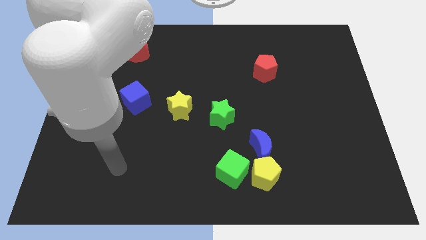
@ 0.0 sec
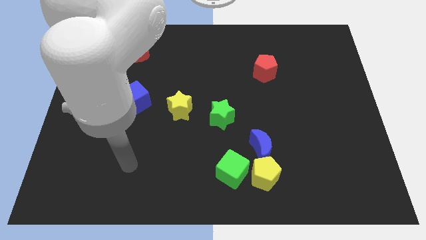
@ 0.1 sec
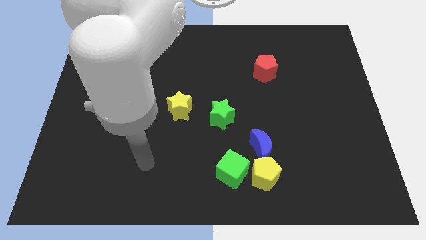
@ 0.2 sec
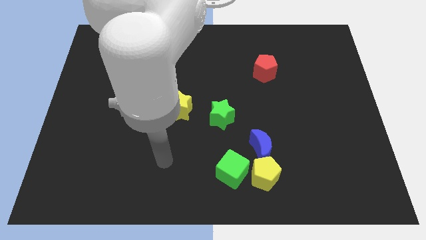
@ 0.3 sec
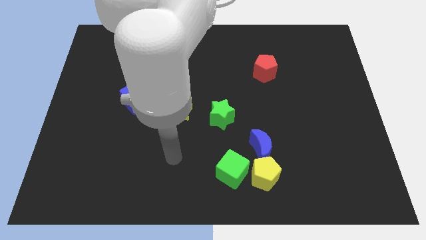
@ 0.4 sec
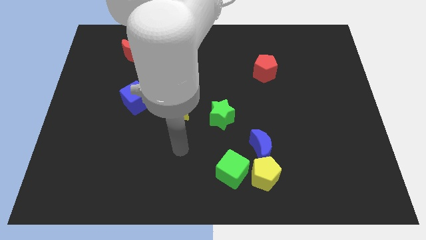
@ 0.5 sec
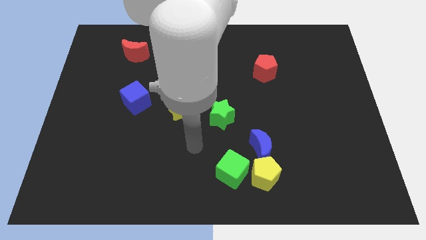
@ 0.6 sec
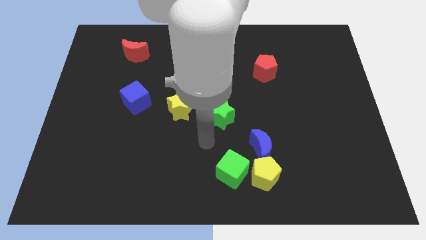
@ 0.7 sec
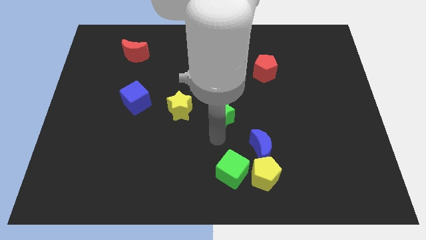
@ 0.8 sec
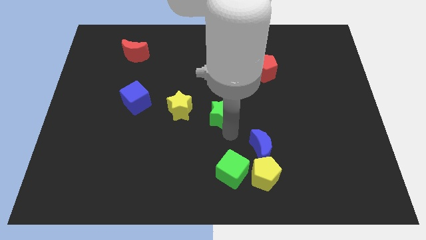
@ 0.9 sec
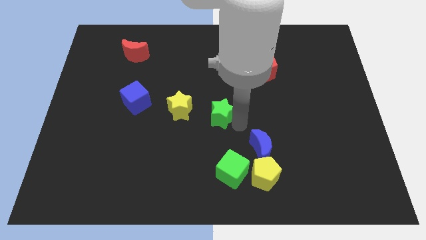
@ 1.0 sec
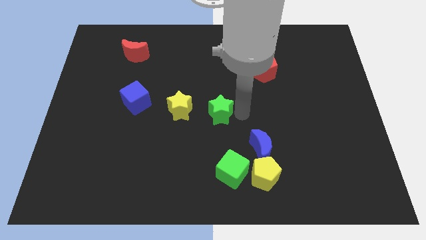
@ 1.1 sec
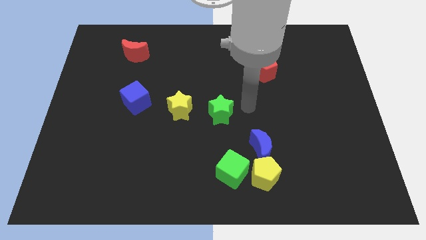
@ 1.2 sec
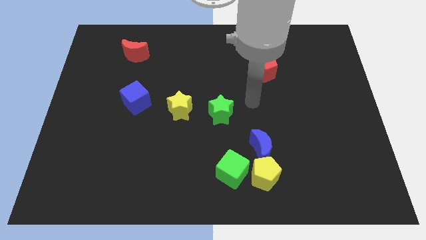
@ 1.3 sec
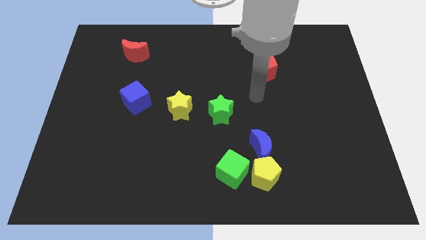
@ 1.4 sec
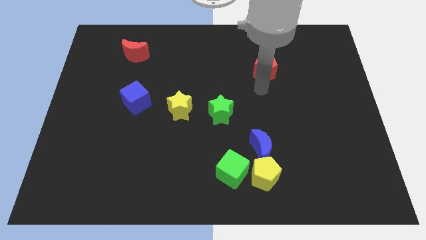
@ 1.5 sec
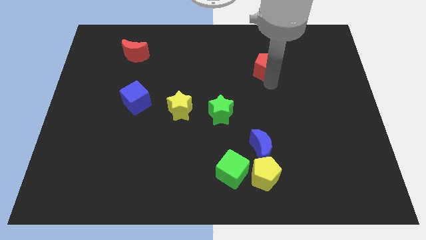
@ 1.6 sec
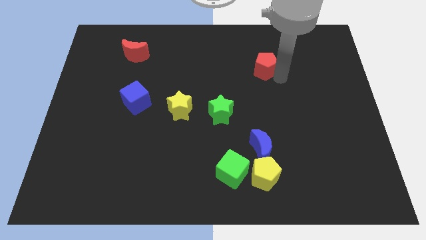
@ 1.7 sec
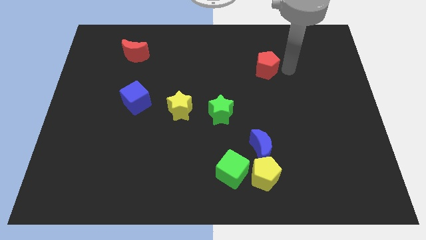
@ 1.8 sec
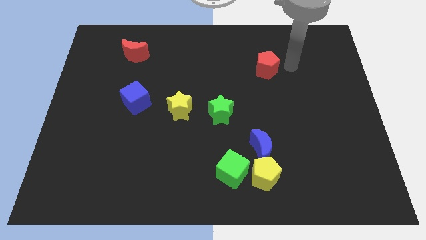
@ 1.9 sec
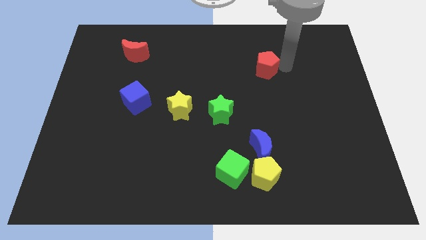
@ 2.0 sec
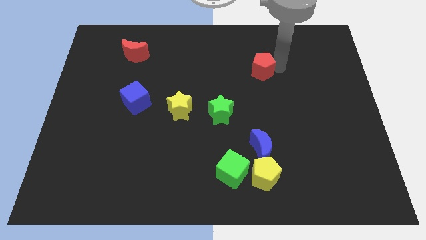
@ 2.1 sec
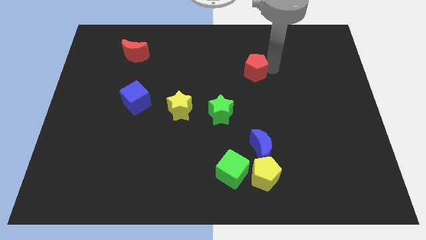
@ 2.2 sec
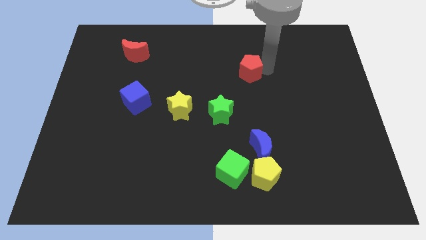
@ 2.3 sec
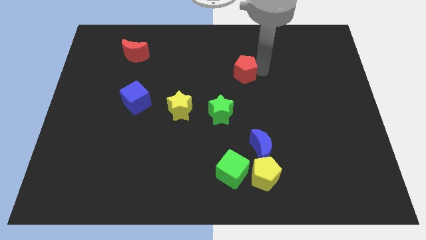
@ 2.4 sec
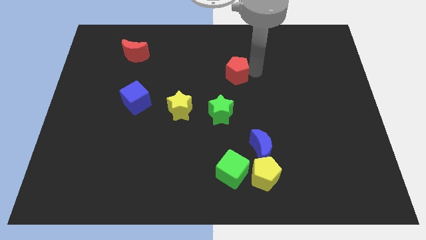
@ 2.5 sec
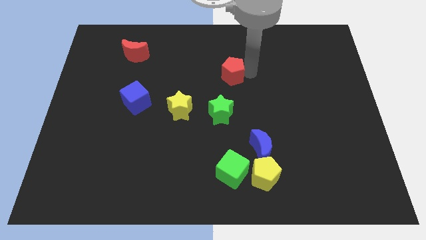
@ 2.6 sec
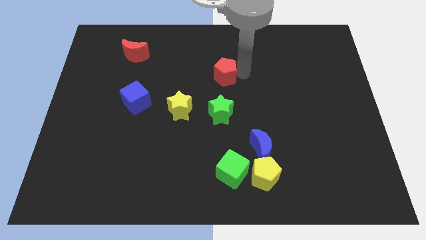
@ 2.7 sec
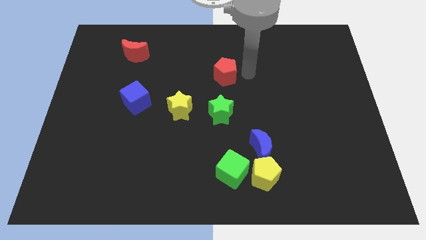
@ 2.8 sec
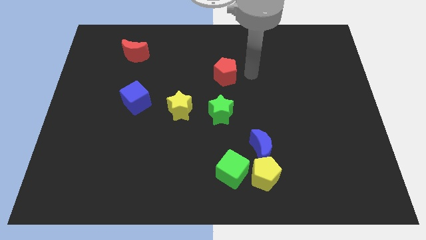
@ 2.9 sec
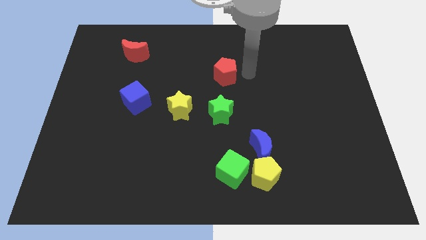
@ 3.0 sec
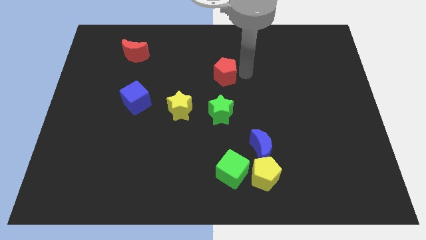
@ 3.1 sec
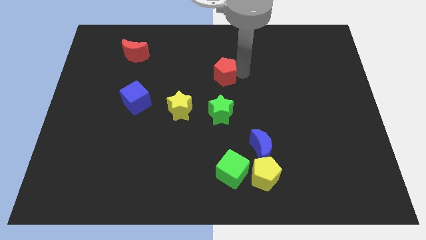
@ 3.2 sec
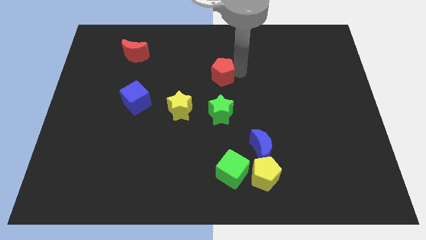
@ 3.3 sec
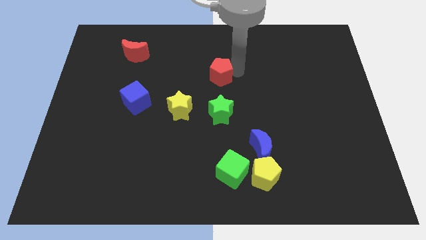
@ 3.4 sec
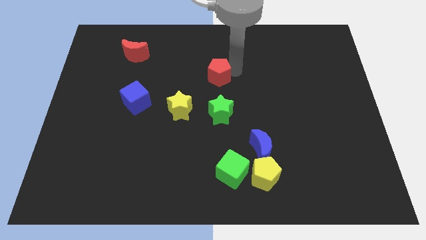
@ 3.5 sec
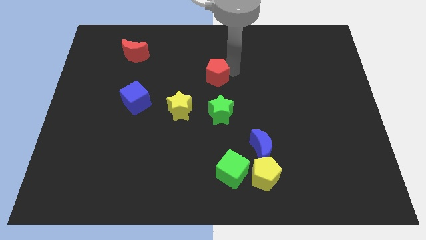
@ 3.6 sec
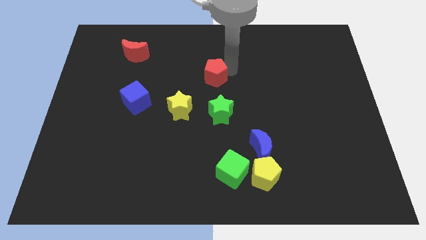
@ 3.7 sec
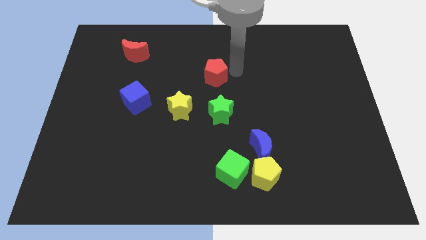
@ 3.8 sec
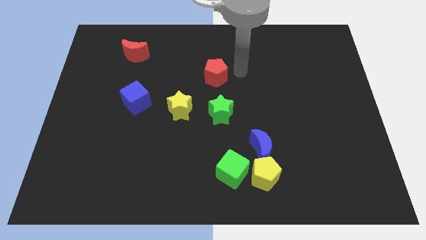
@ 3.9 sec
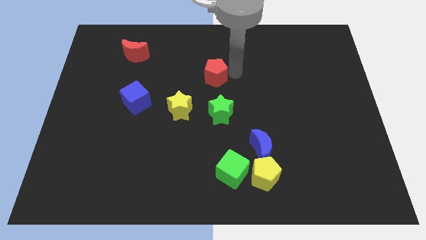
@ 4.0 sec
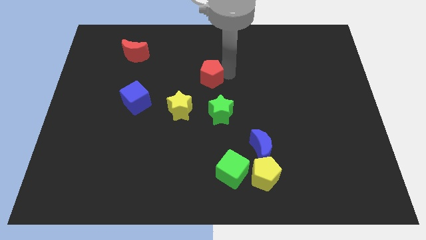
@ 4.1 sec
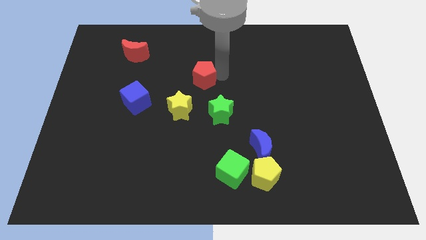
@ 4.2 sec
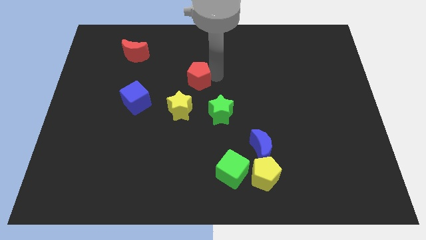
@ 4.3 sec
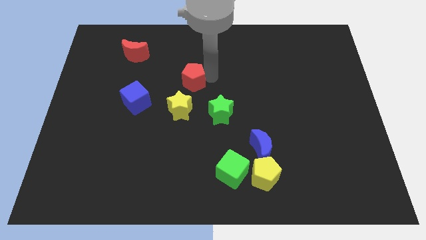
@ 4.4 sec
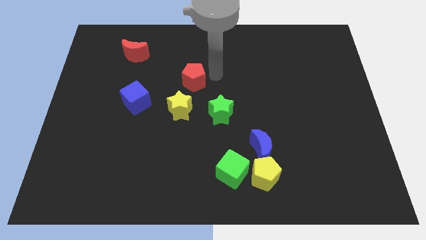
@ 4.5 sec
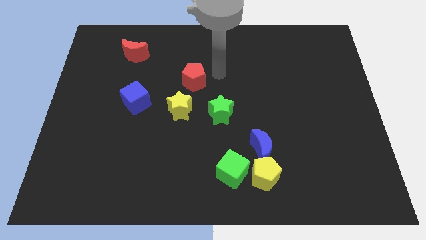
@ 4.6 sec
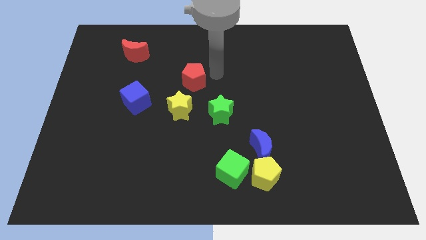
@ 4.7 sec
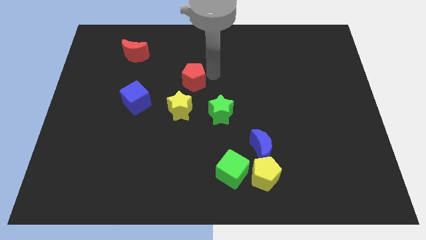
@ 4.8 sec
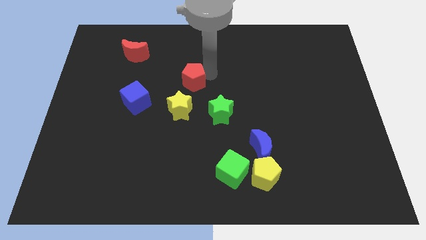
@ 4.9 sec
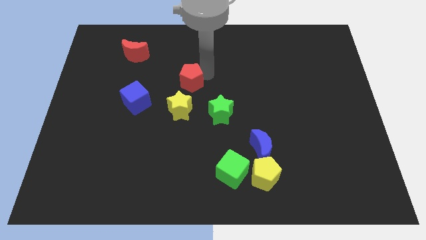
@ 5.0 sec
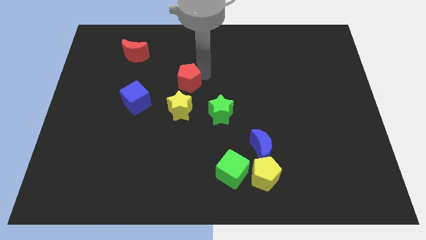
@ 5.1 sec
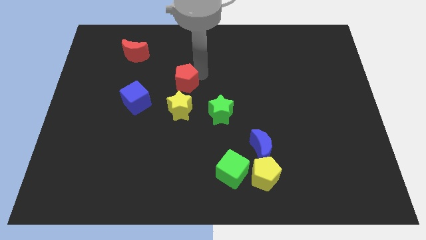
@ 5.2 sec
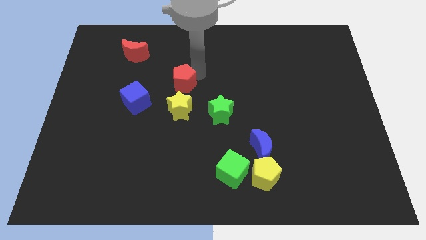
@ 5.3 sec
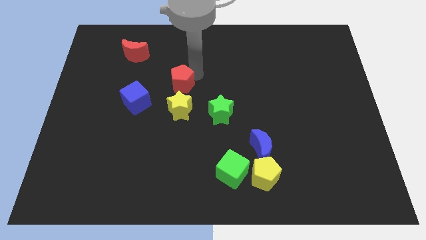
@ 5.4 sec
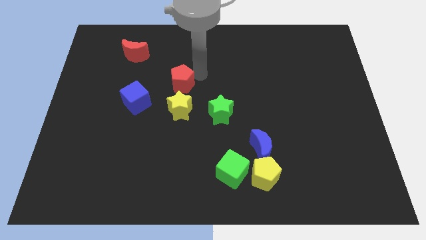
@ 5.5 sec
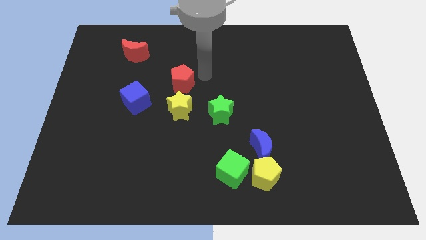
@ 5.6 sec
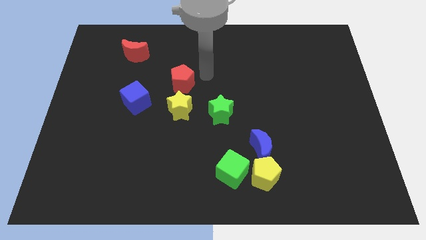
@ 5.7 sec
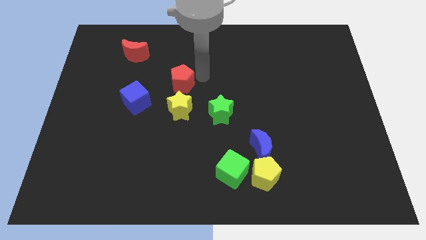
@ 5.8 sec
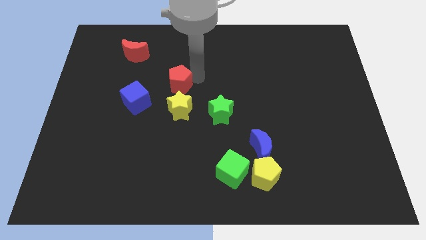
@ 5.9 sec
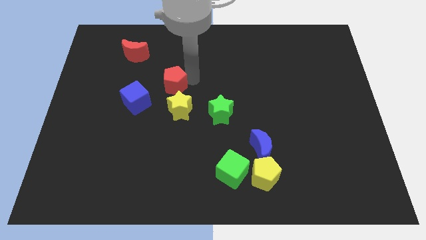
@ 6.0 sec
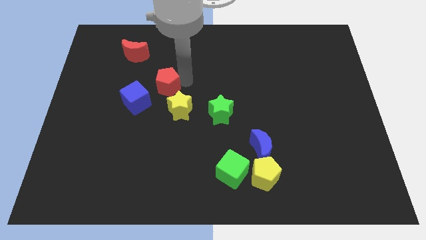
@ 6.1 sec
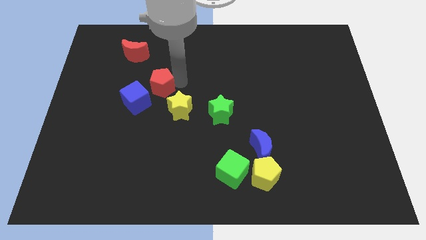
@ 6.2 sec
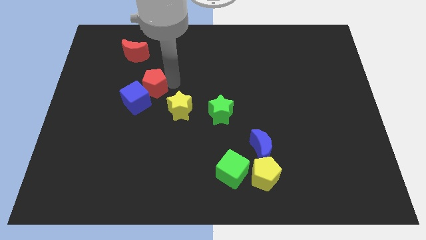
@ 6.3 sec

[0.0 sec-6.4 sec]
slide the red pentagon towards the blue cube
